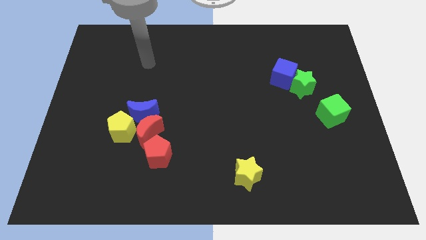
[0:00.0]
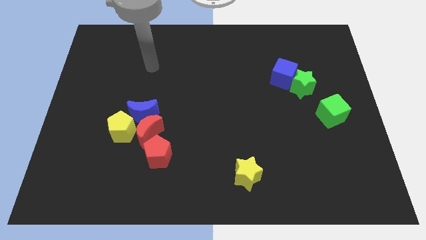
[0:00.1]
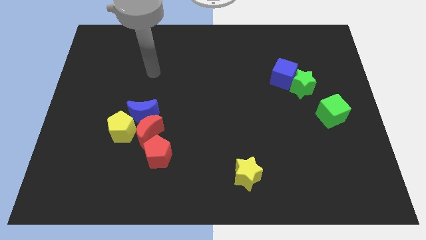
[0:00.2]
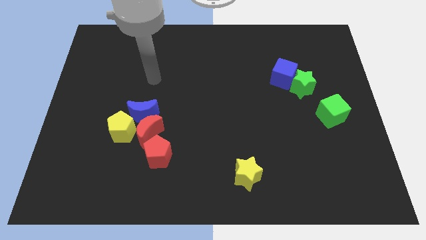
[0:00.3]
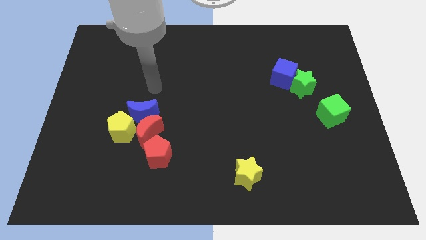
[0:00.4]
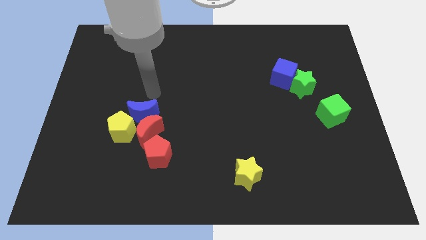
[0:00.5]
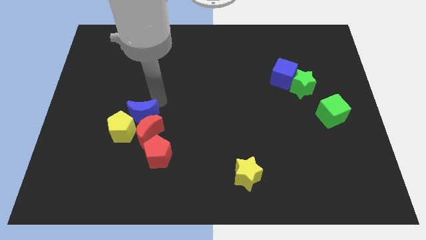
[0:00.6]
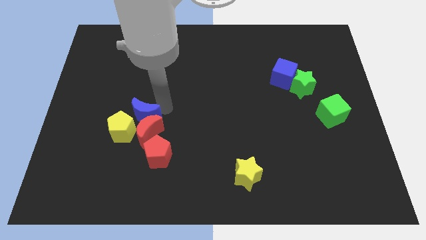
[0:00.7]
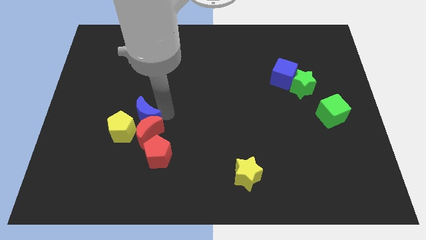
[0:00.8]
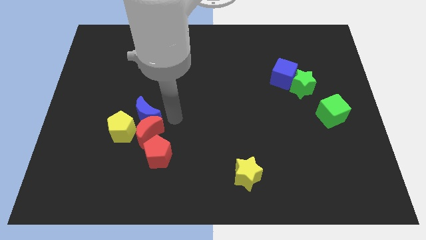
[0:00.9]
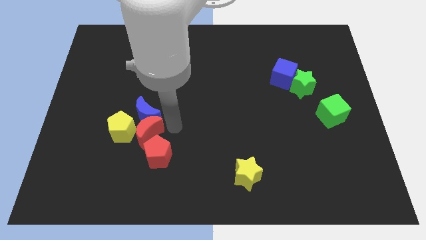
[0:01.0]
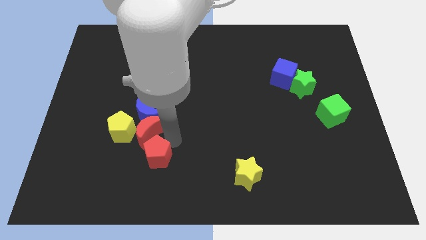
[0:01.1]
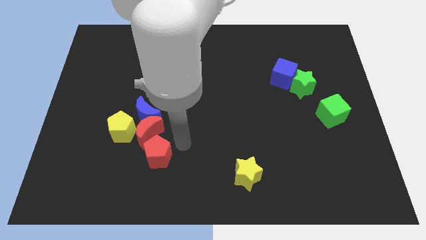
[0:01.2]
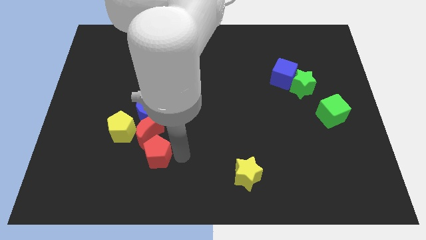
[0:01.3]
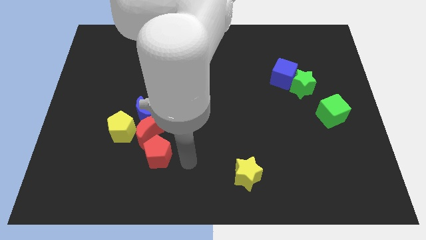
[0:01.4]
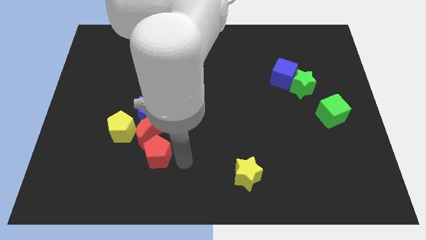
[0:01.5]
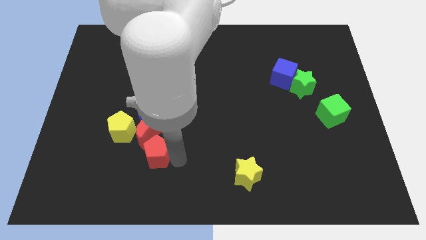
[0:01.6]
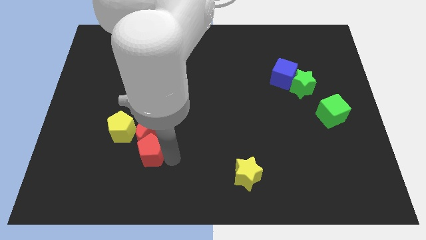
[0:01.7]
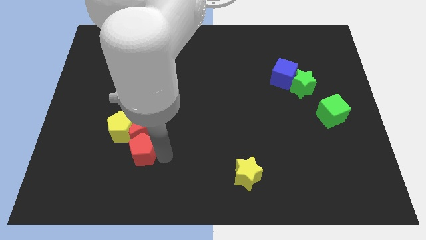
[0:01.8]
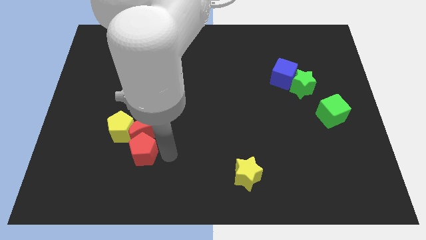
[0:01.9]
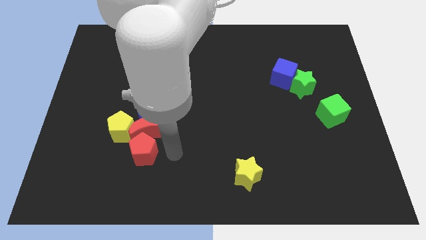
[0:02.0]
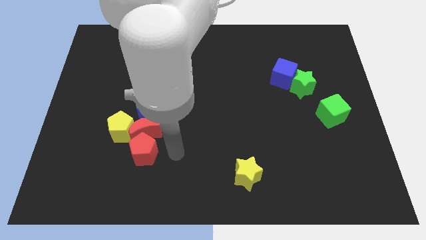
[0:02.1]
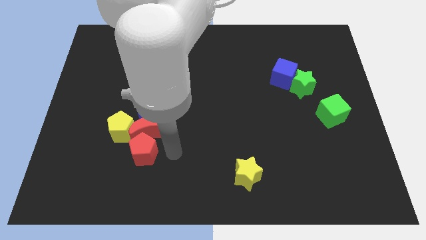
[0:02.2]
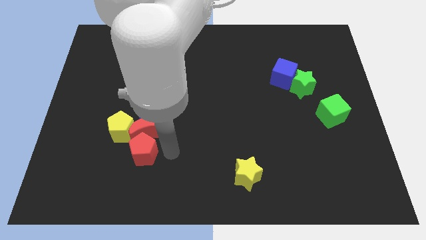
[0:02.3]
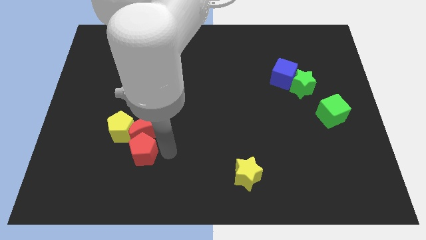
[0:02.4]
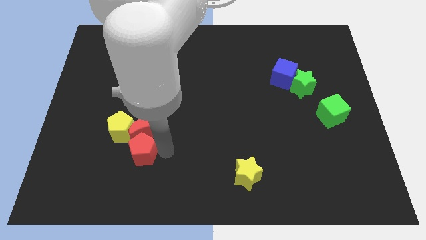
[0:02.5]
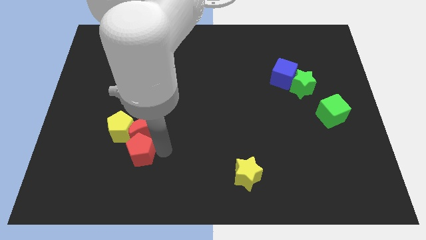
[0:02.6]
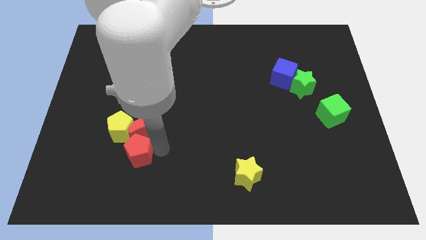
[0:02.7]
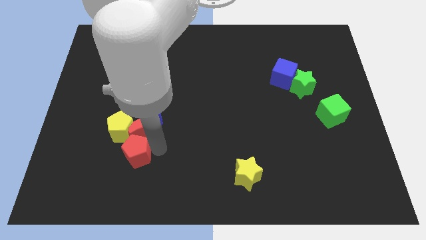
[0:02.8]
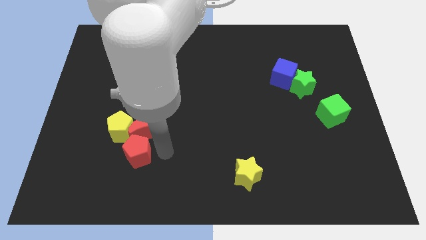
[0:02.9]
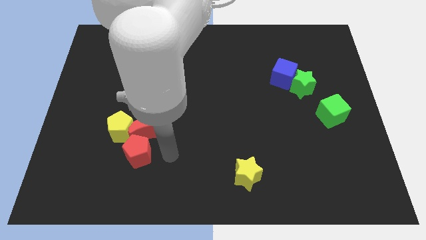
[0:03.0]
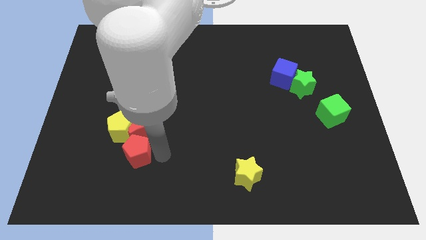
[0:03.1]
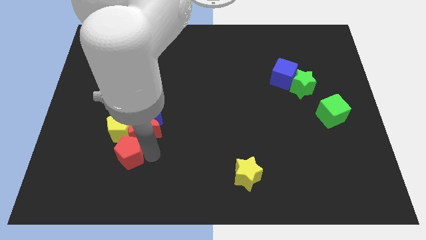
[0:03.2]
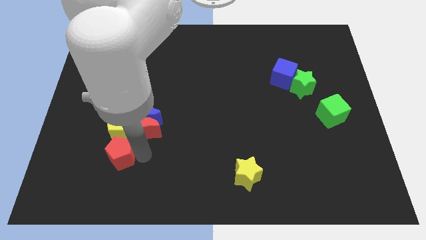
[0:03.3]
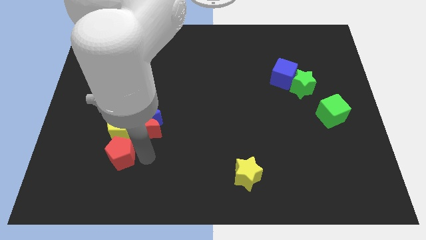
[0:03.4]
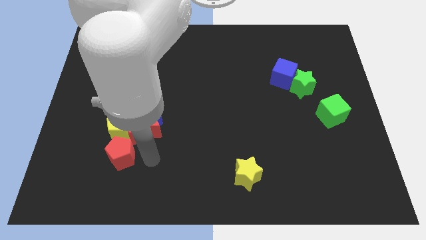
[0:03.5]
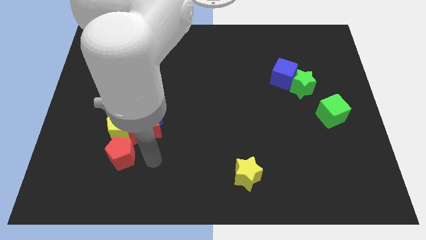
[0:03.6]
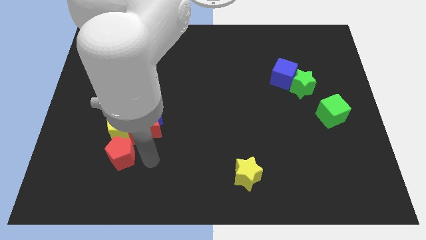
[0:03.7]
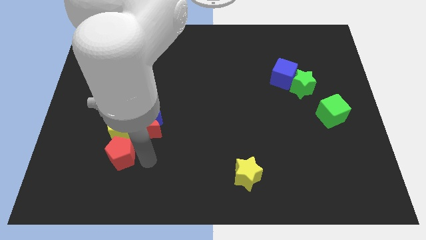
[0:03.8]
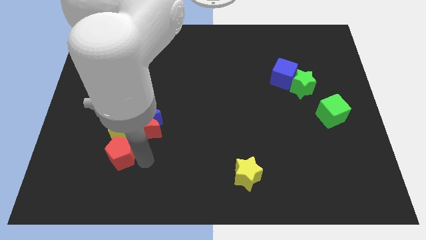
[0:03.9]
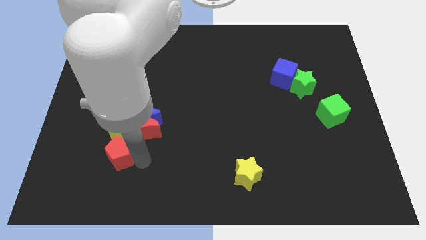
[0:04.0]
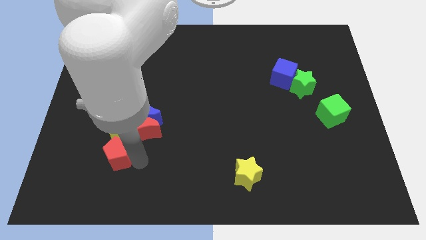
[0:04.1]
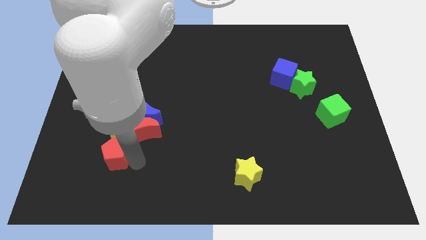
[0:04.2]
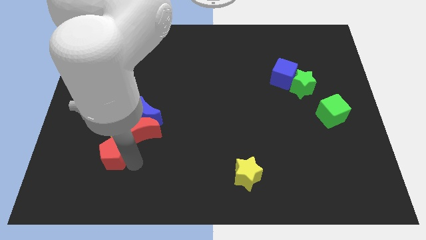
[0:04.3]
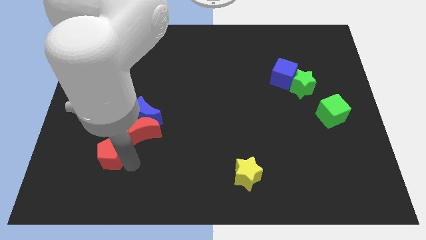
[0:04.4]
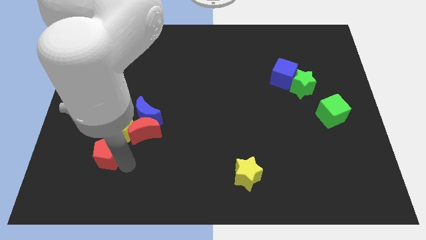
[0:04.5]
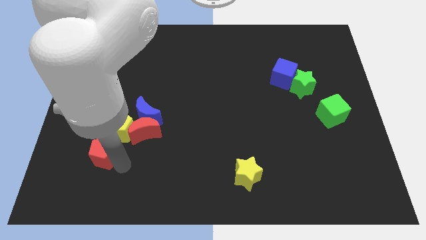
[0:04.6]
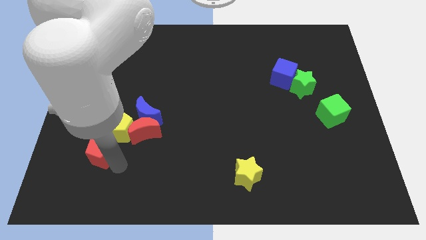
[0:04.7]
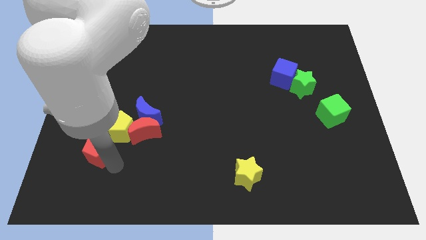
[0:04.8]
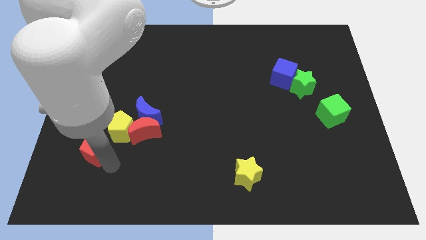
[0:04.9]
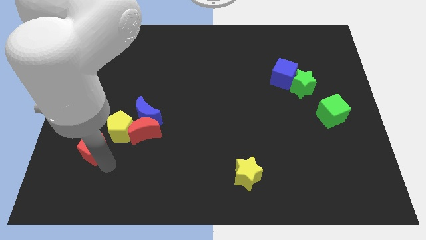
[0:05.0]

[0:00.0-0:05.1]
move the red pentagon a bit upwards and left

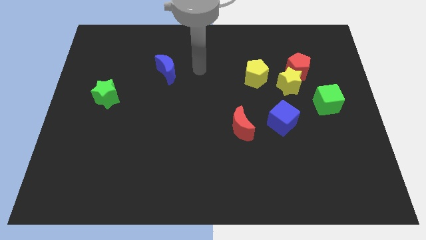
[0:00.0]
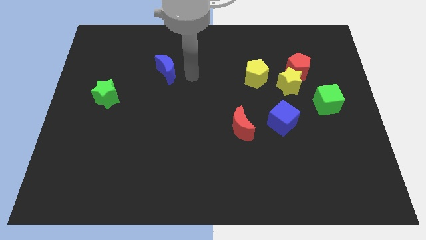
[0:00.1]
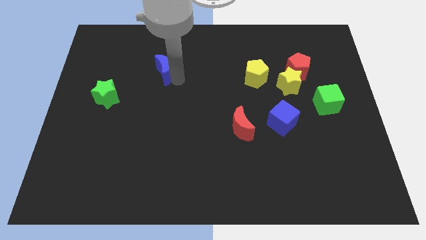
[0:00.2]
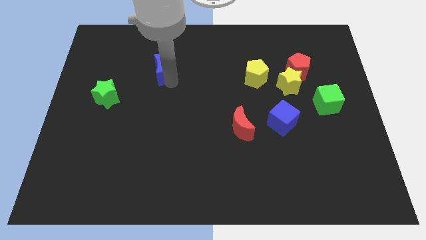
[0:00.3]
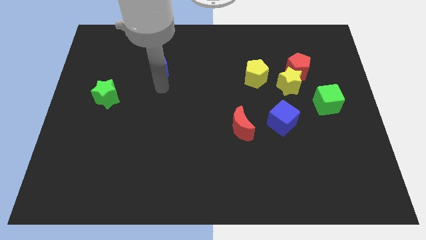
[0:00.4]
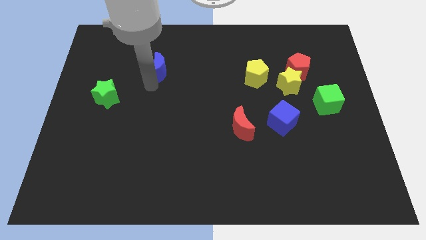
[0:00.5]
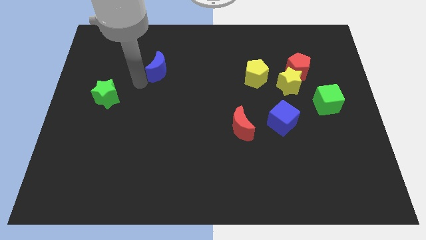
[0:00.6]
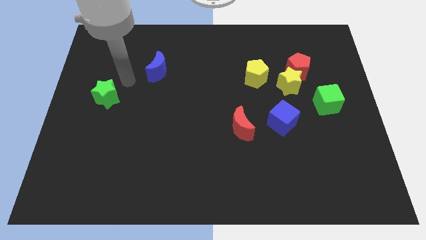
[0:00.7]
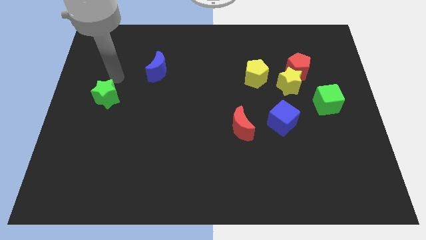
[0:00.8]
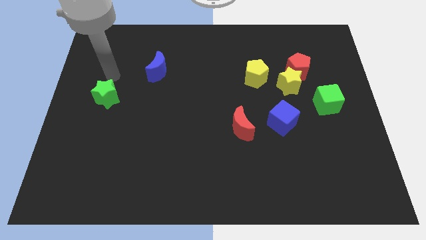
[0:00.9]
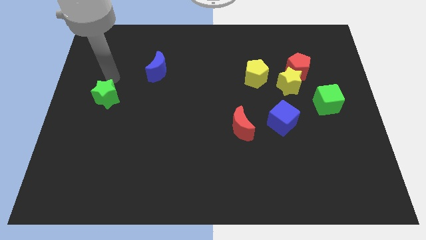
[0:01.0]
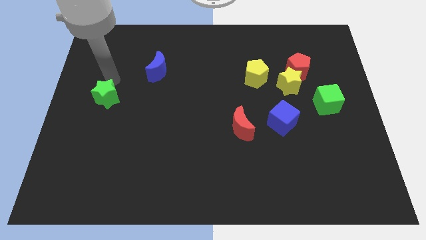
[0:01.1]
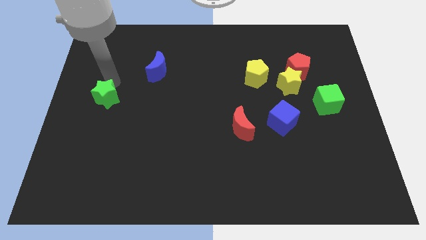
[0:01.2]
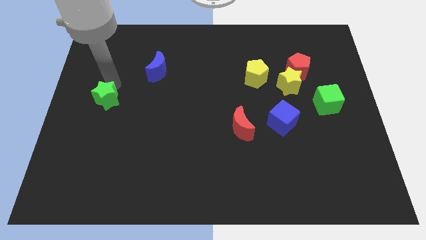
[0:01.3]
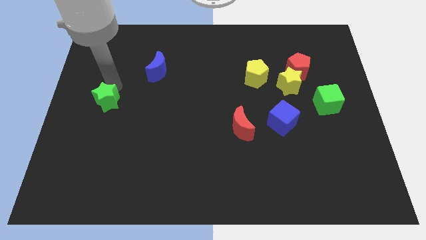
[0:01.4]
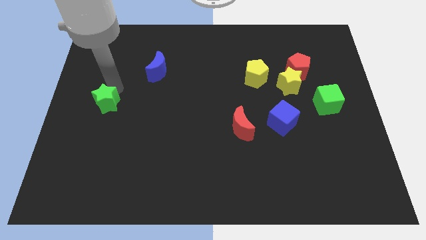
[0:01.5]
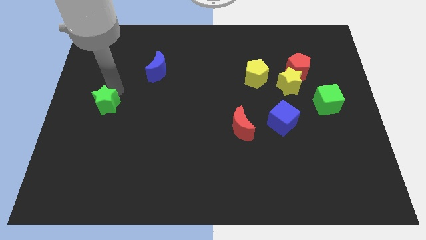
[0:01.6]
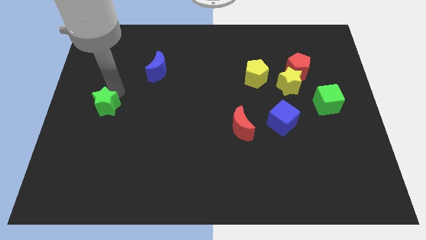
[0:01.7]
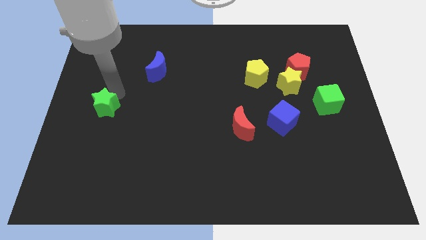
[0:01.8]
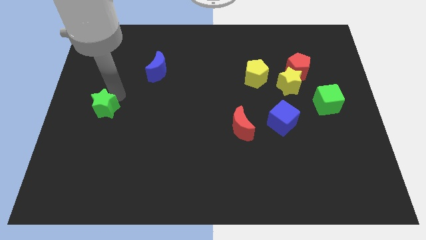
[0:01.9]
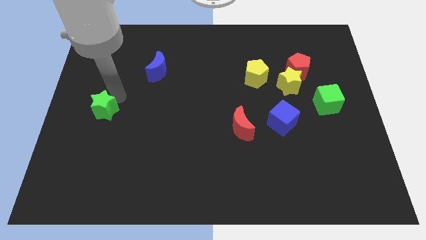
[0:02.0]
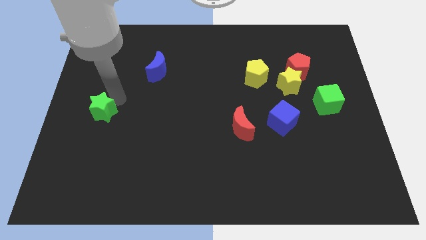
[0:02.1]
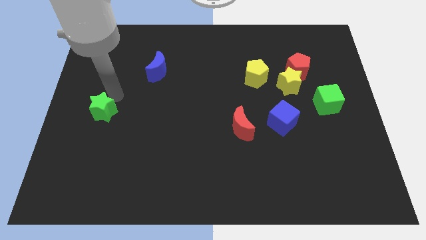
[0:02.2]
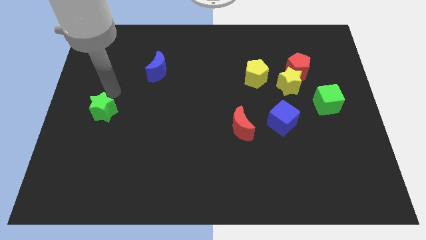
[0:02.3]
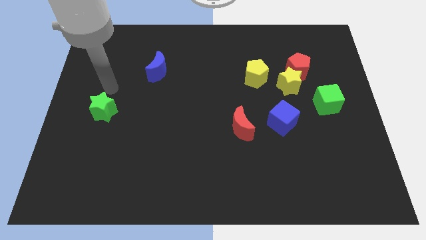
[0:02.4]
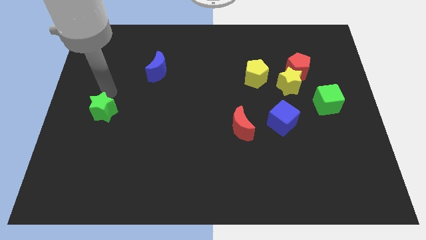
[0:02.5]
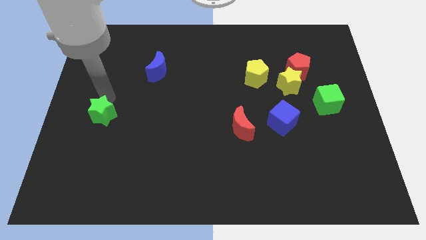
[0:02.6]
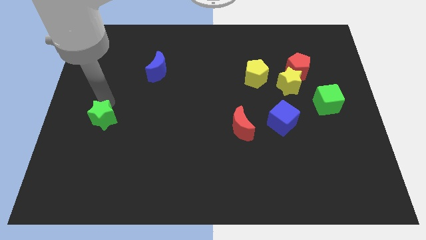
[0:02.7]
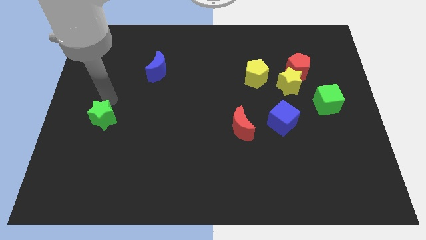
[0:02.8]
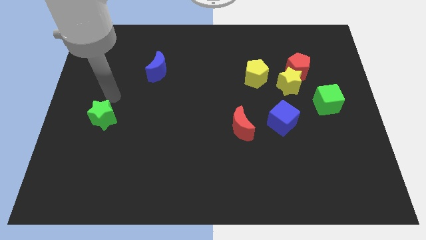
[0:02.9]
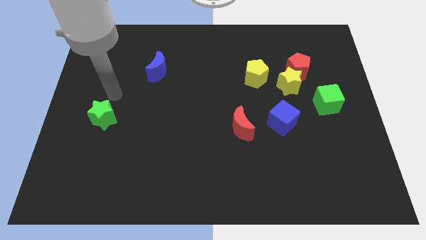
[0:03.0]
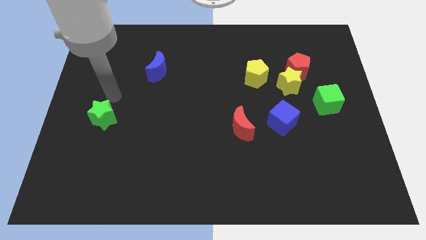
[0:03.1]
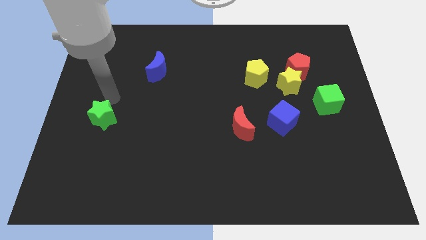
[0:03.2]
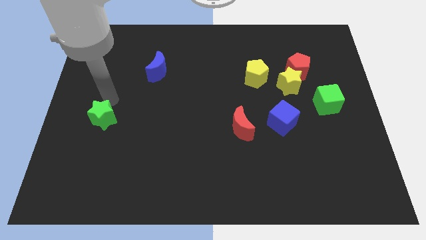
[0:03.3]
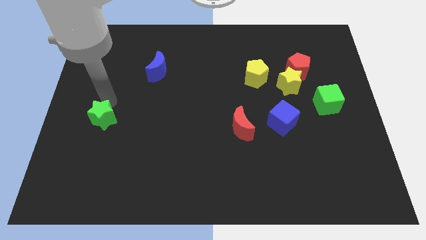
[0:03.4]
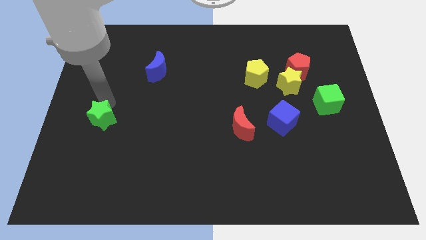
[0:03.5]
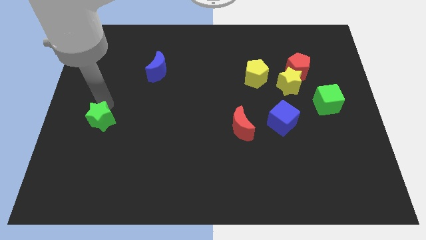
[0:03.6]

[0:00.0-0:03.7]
push the green star downwards slightly

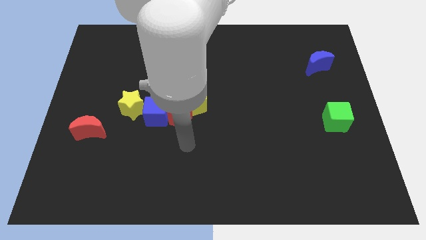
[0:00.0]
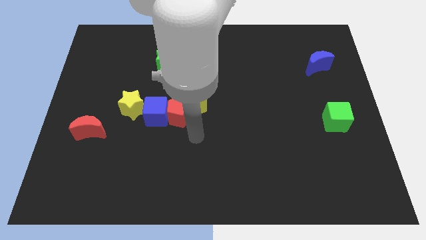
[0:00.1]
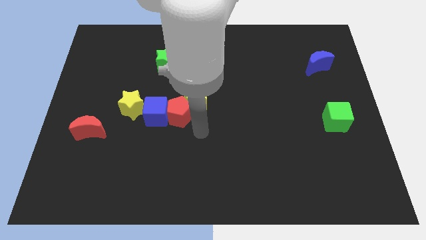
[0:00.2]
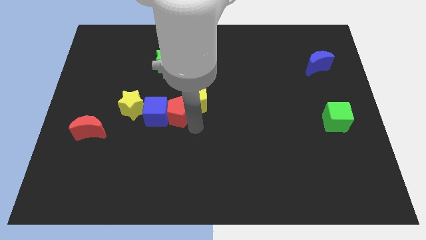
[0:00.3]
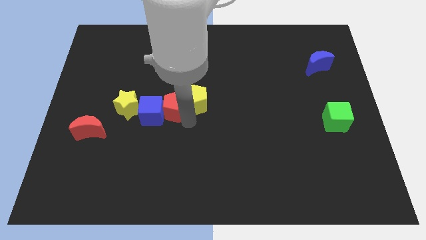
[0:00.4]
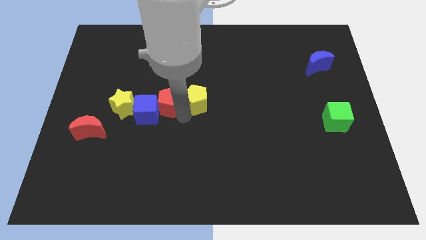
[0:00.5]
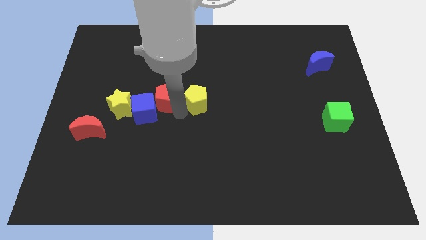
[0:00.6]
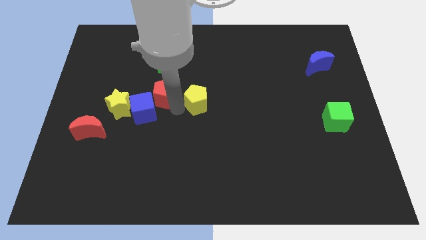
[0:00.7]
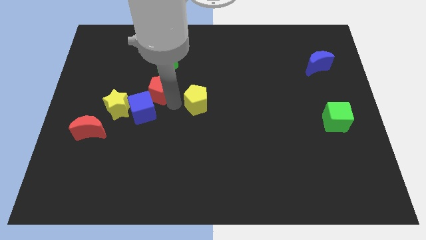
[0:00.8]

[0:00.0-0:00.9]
move the red pentagon a bit upwards and to the left
